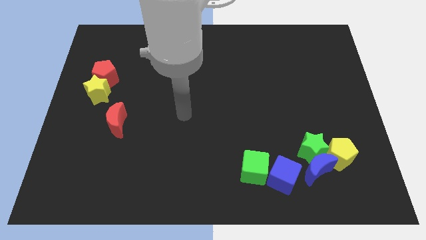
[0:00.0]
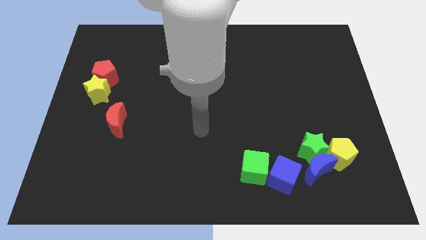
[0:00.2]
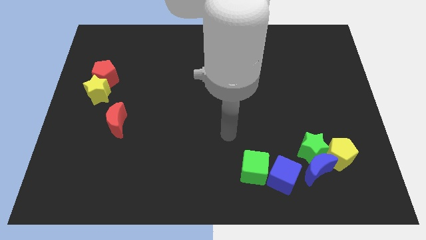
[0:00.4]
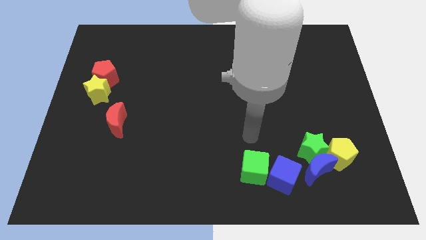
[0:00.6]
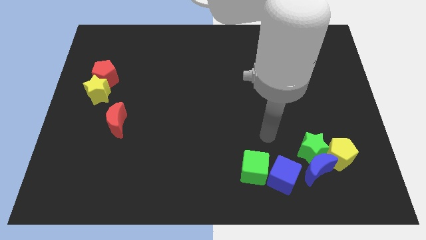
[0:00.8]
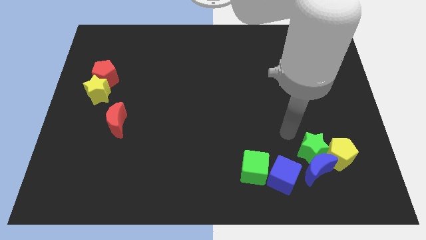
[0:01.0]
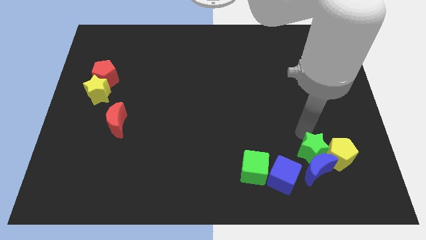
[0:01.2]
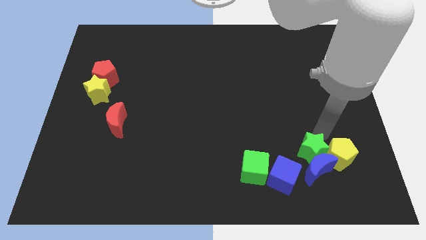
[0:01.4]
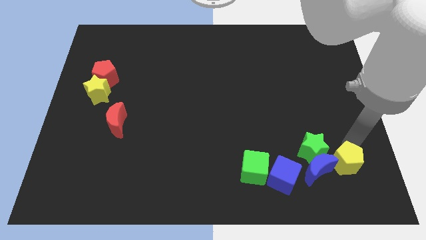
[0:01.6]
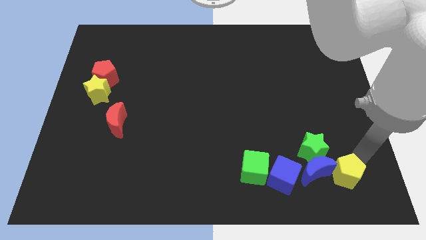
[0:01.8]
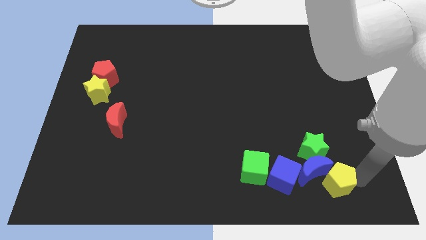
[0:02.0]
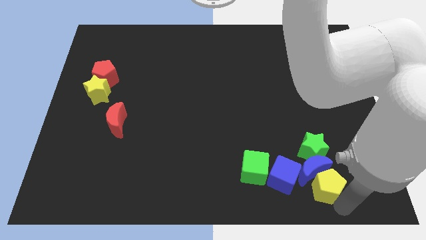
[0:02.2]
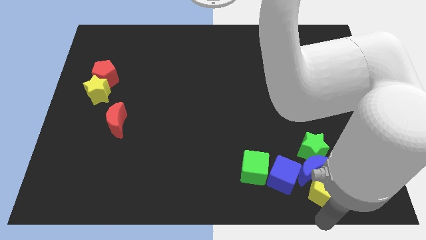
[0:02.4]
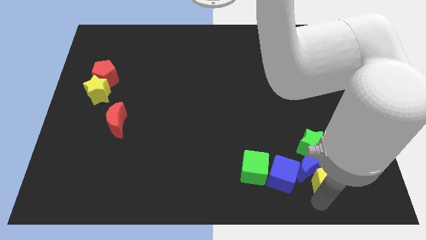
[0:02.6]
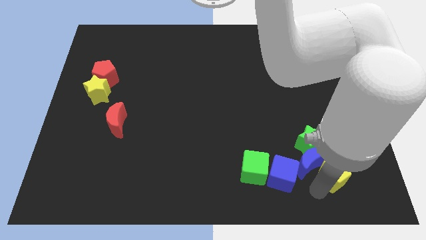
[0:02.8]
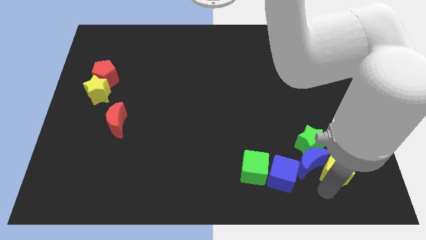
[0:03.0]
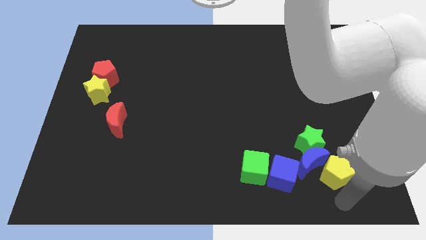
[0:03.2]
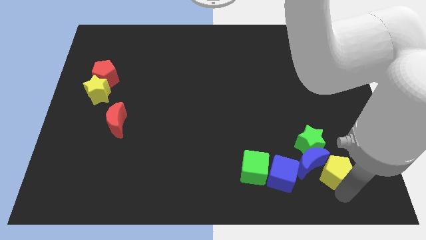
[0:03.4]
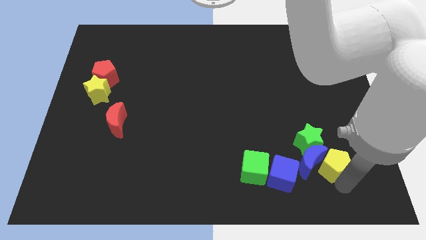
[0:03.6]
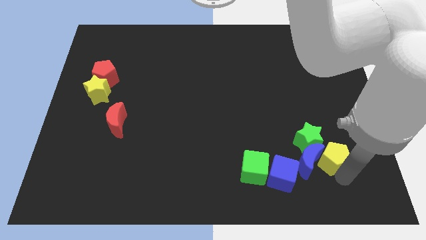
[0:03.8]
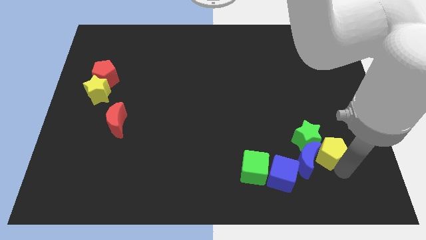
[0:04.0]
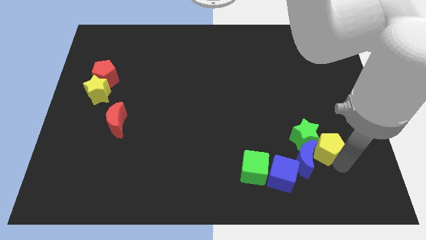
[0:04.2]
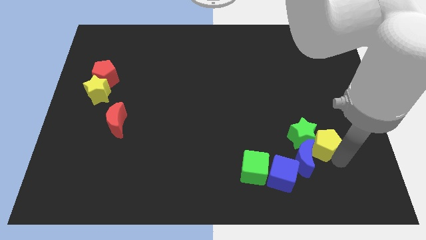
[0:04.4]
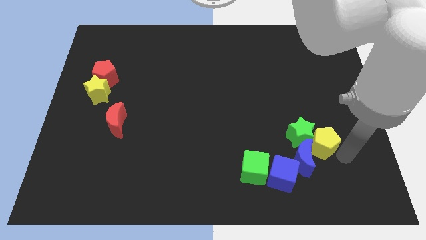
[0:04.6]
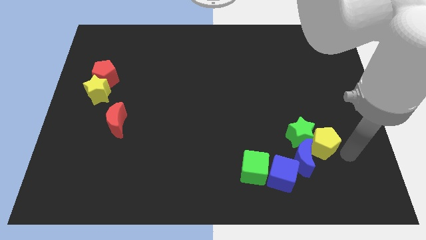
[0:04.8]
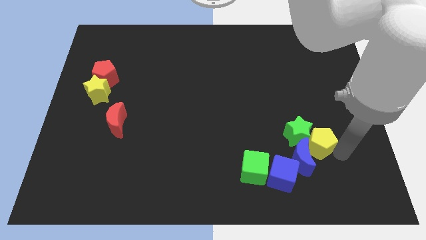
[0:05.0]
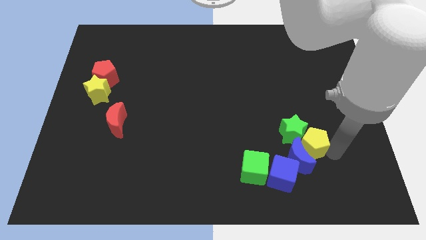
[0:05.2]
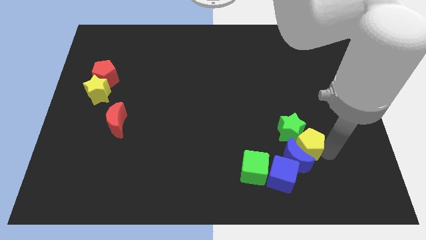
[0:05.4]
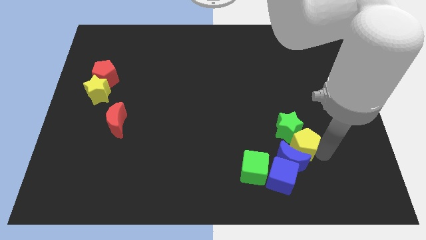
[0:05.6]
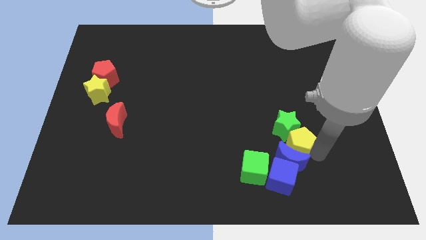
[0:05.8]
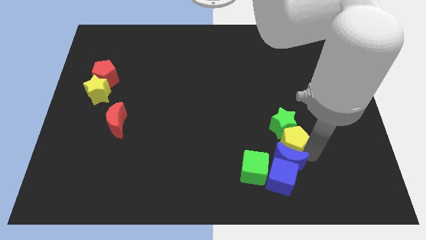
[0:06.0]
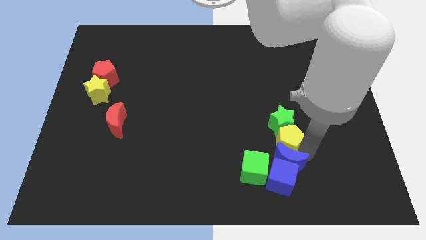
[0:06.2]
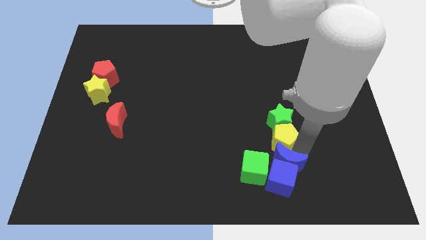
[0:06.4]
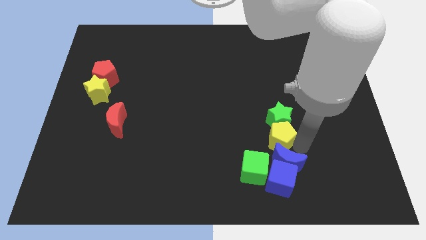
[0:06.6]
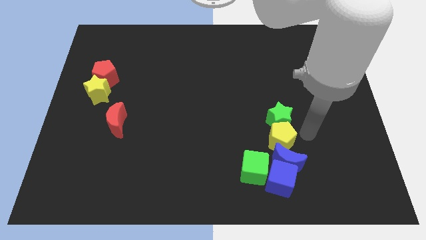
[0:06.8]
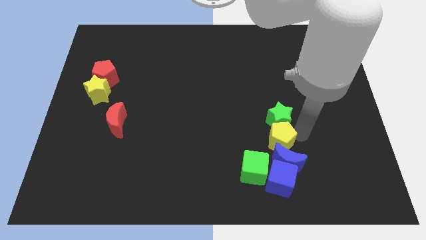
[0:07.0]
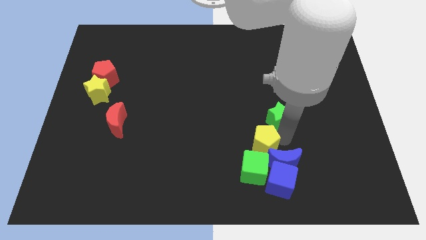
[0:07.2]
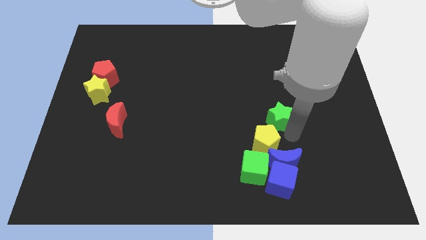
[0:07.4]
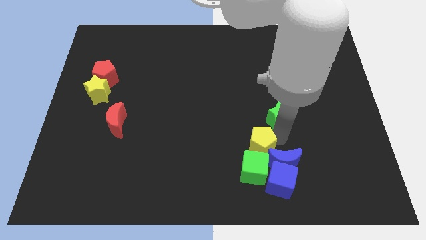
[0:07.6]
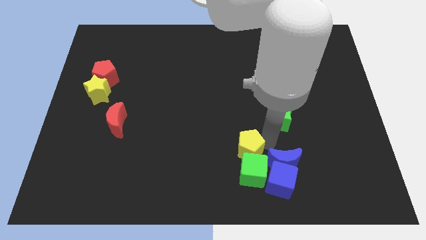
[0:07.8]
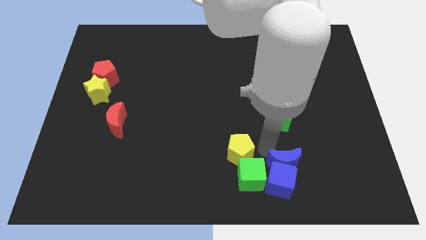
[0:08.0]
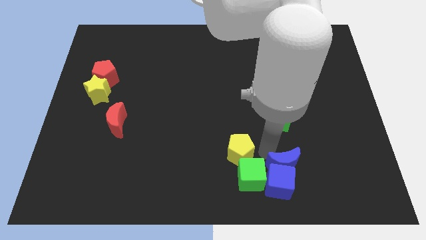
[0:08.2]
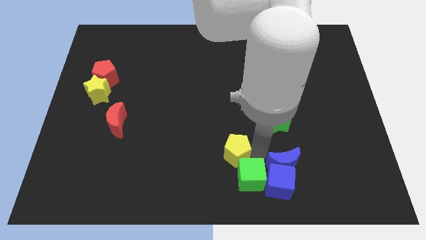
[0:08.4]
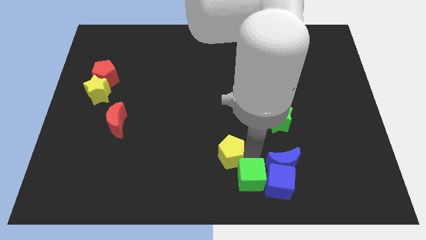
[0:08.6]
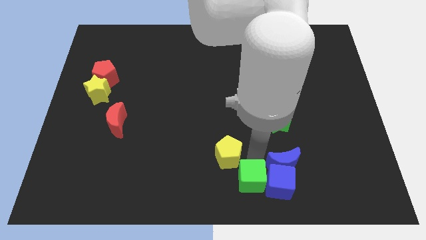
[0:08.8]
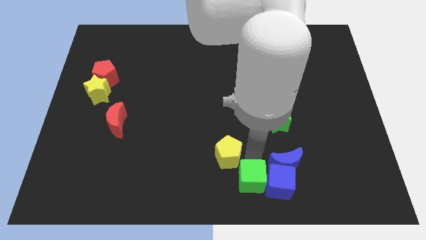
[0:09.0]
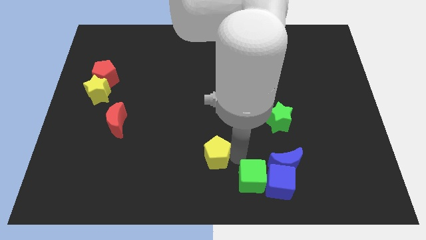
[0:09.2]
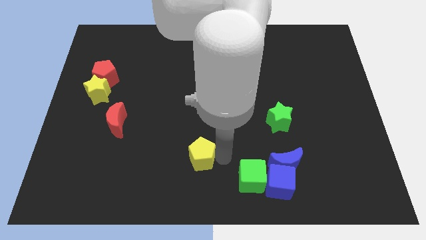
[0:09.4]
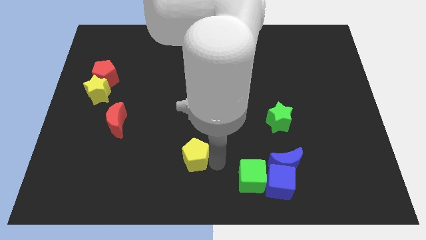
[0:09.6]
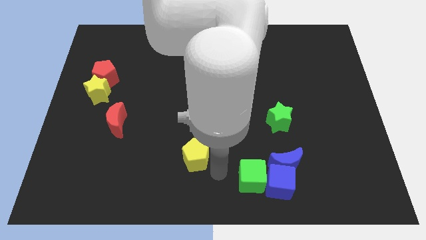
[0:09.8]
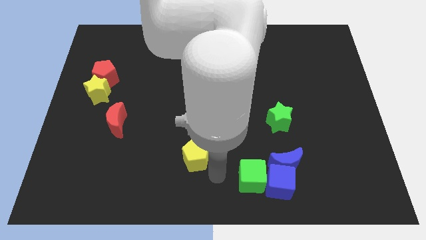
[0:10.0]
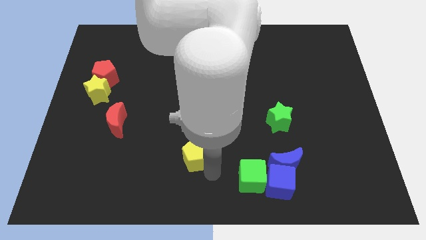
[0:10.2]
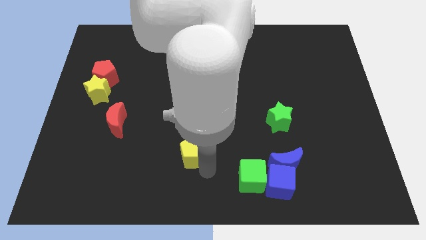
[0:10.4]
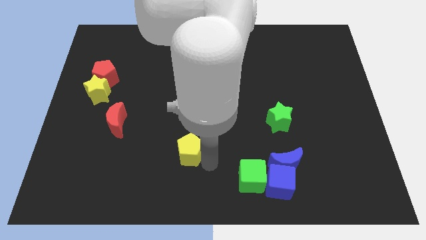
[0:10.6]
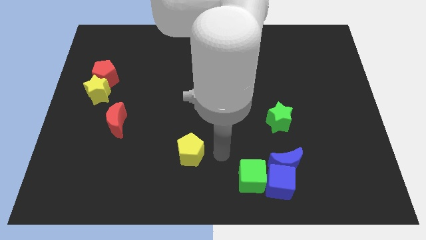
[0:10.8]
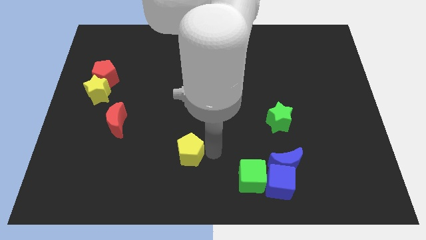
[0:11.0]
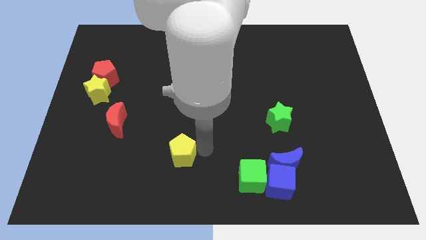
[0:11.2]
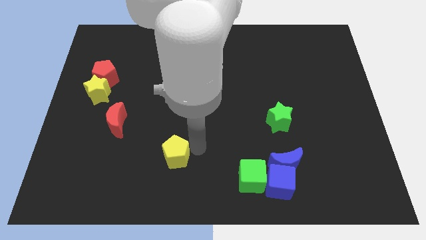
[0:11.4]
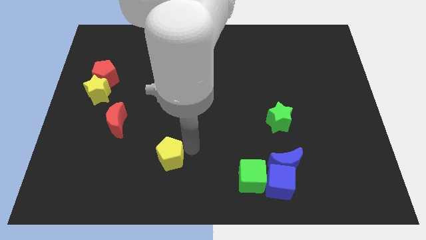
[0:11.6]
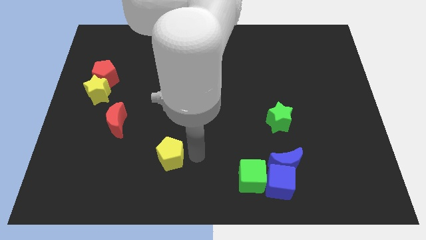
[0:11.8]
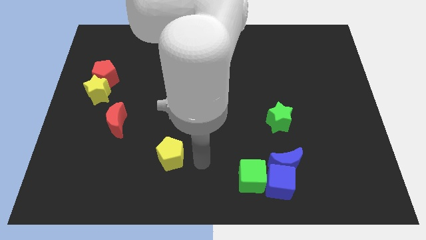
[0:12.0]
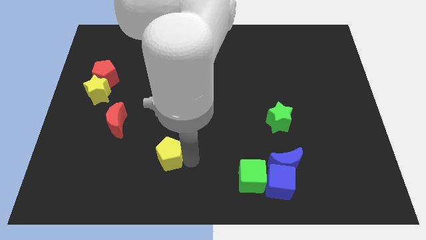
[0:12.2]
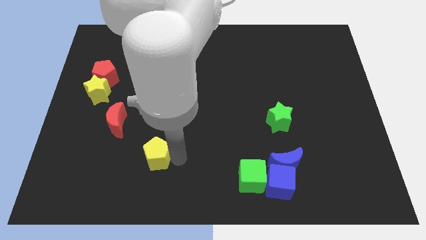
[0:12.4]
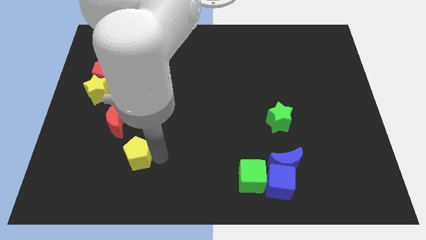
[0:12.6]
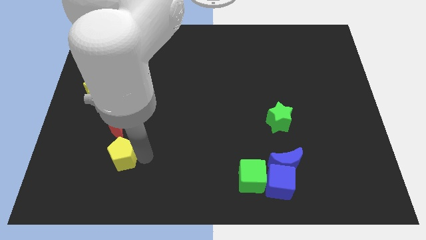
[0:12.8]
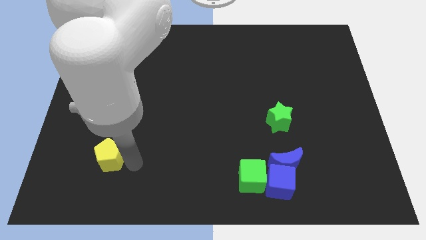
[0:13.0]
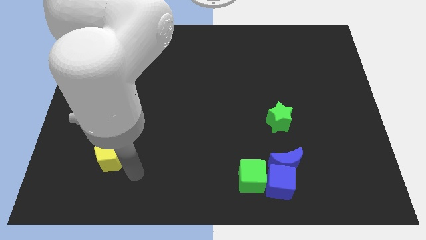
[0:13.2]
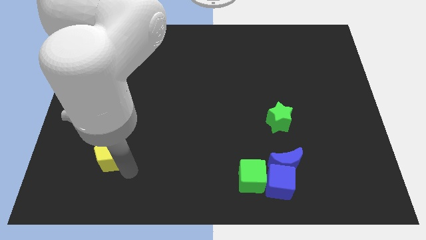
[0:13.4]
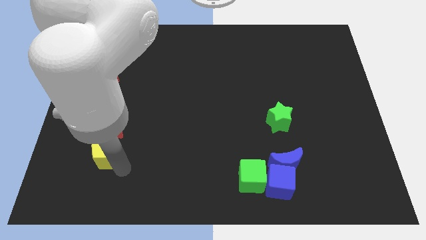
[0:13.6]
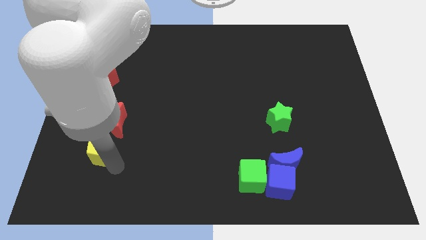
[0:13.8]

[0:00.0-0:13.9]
put the yellow pentagon diagonally down and to the left of the red moon
